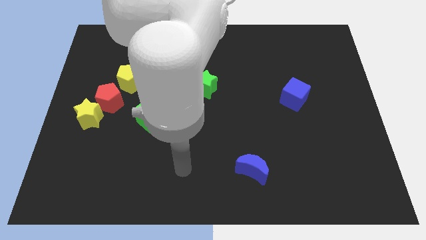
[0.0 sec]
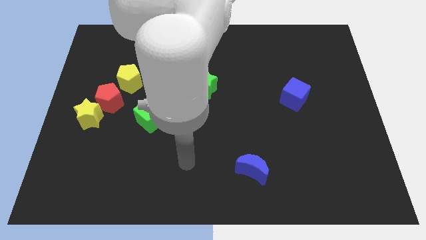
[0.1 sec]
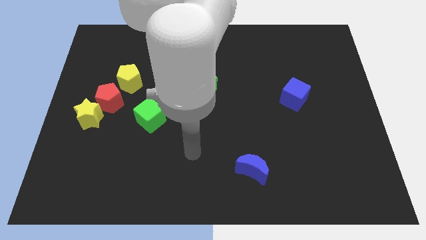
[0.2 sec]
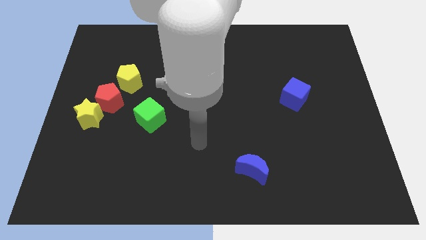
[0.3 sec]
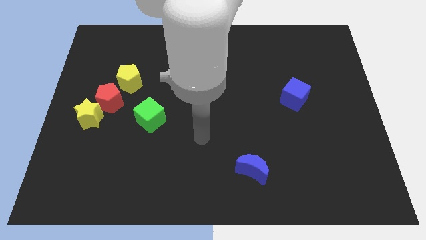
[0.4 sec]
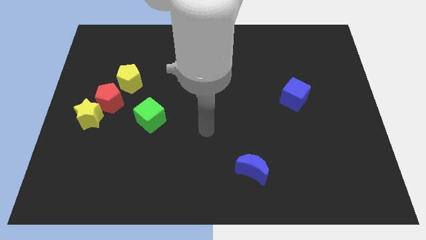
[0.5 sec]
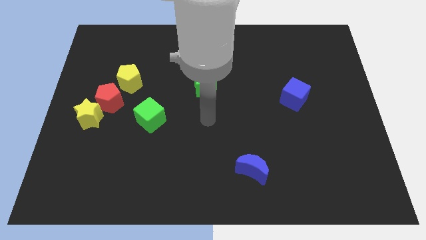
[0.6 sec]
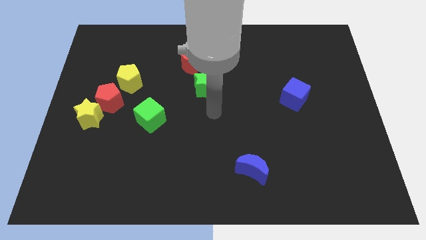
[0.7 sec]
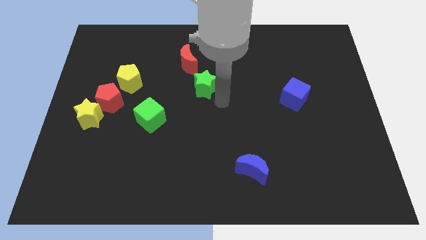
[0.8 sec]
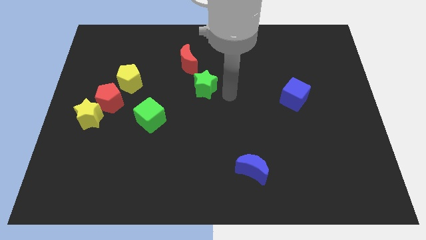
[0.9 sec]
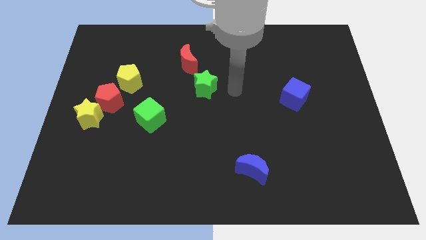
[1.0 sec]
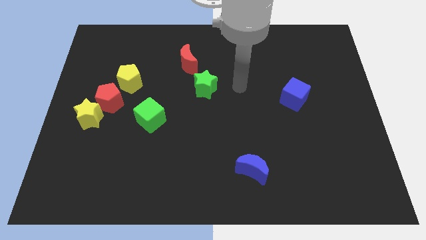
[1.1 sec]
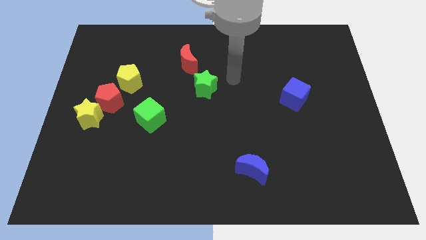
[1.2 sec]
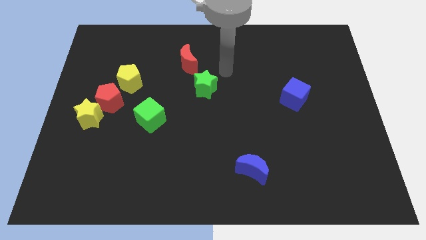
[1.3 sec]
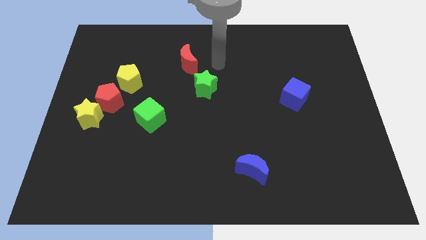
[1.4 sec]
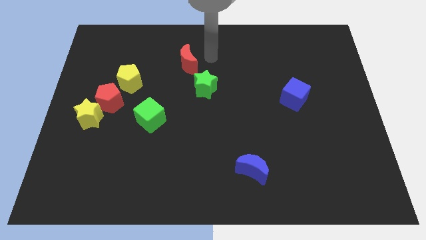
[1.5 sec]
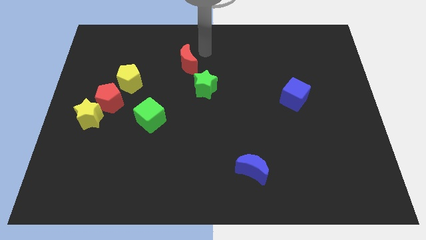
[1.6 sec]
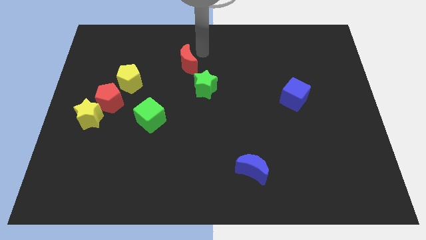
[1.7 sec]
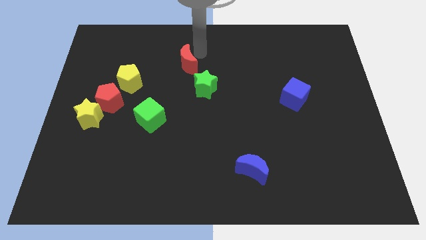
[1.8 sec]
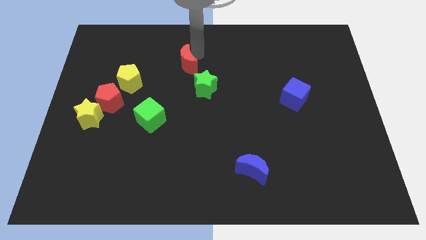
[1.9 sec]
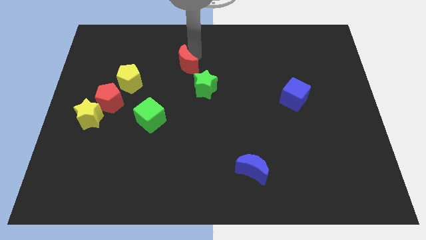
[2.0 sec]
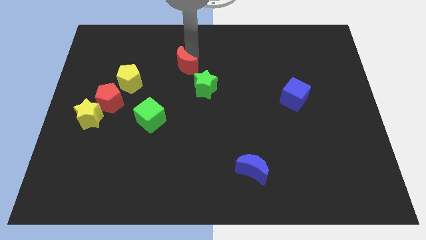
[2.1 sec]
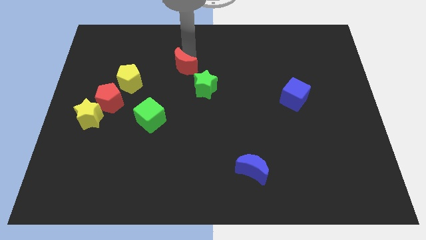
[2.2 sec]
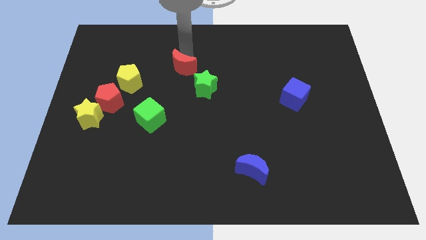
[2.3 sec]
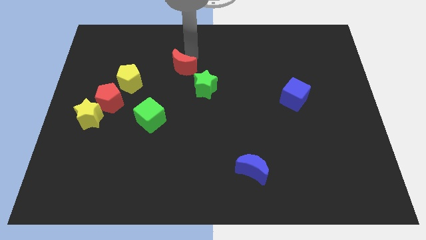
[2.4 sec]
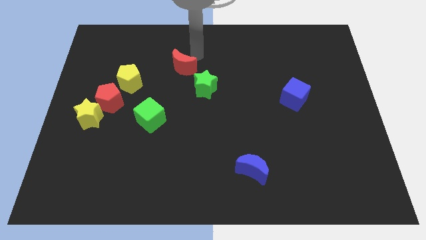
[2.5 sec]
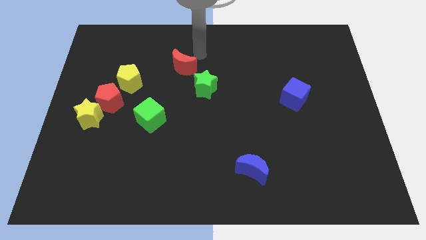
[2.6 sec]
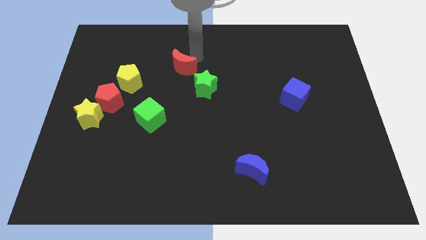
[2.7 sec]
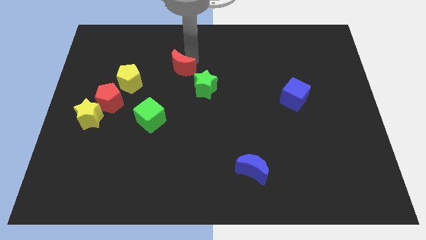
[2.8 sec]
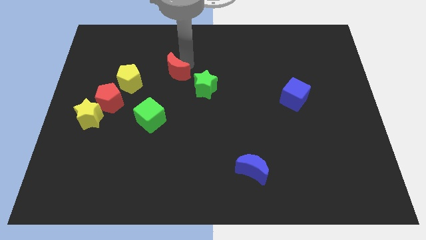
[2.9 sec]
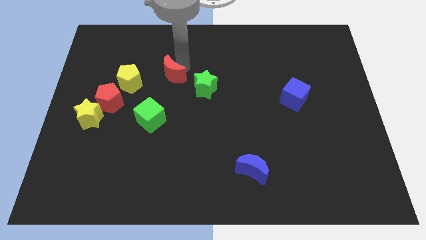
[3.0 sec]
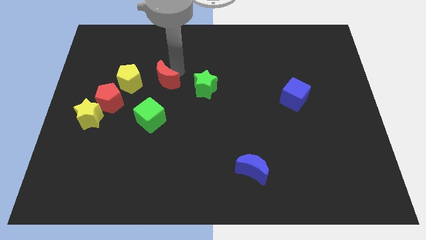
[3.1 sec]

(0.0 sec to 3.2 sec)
slide the red moon diagonally down and left somewhat

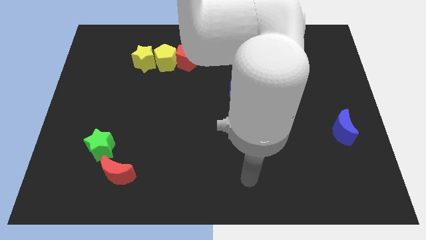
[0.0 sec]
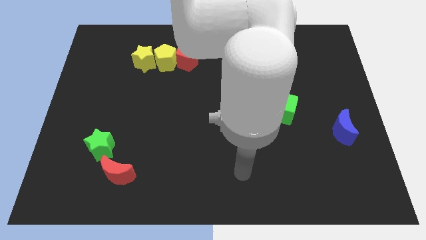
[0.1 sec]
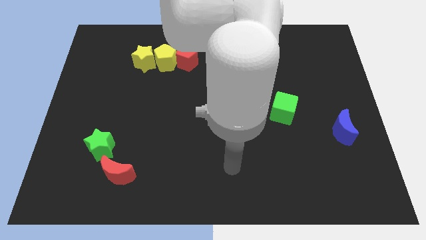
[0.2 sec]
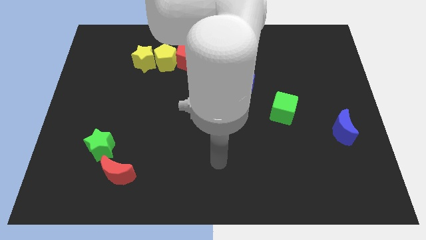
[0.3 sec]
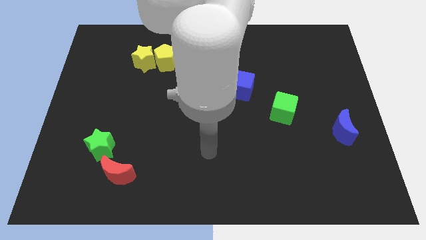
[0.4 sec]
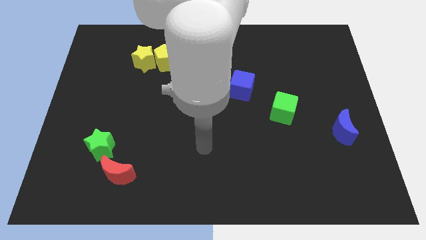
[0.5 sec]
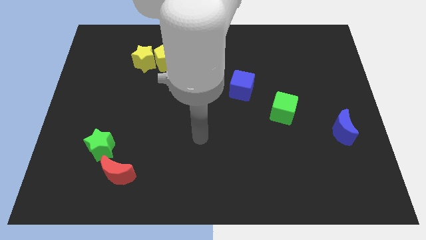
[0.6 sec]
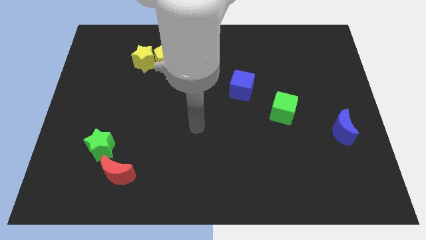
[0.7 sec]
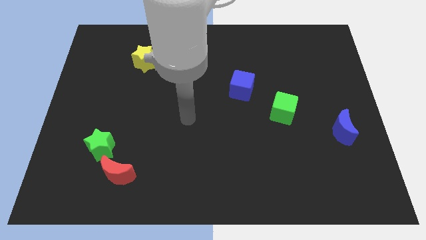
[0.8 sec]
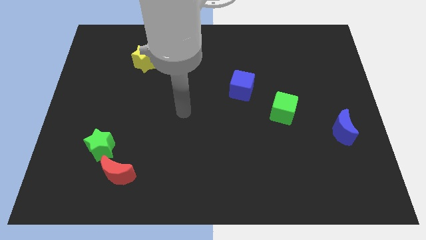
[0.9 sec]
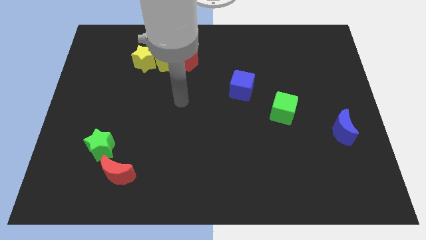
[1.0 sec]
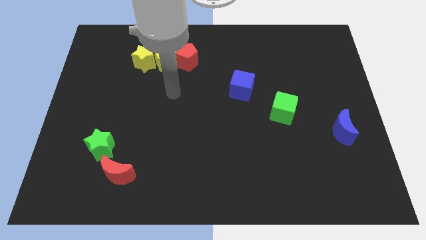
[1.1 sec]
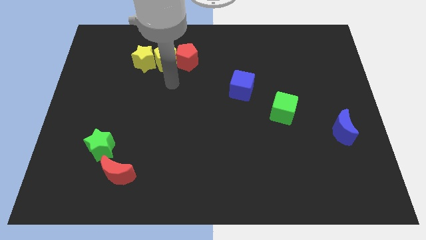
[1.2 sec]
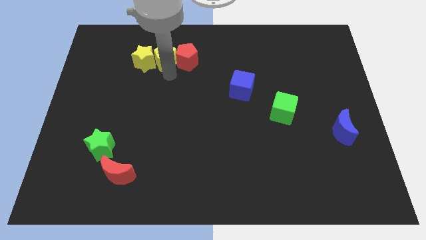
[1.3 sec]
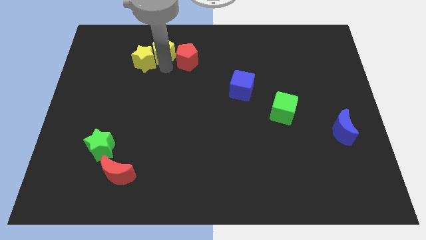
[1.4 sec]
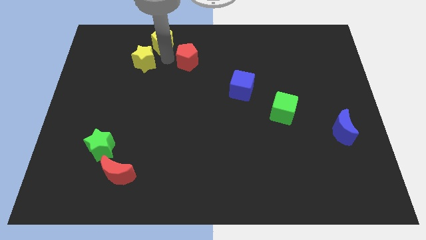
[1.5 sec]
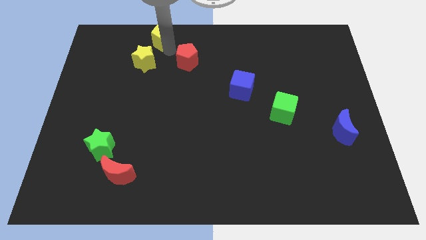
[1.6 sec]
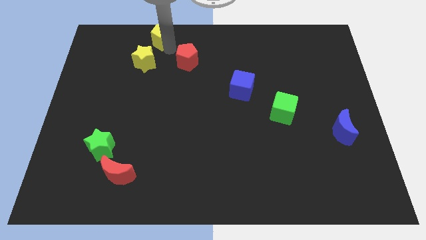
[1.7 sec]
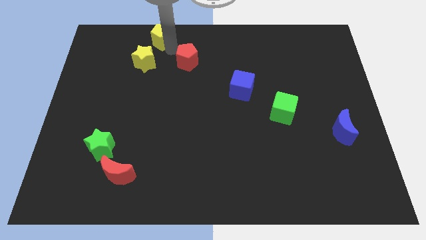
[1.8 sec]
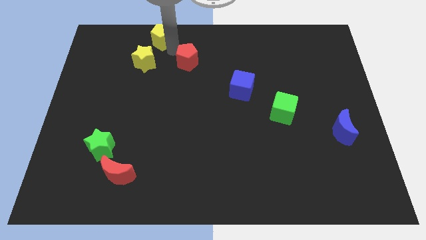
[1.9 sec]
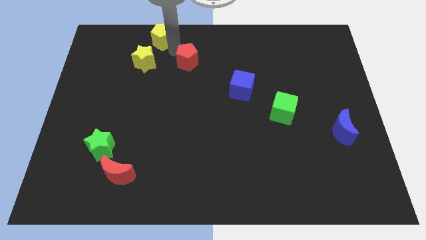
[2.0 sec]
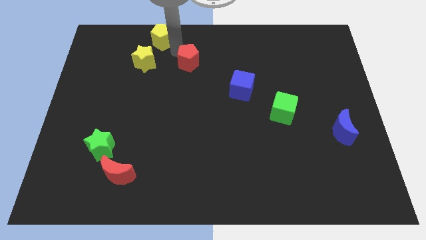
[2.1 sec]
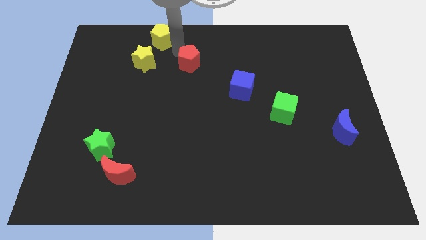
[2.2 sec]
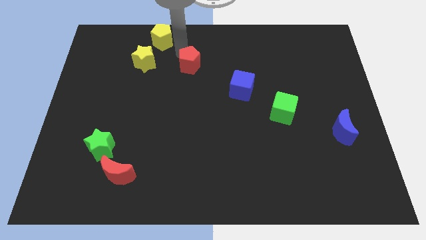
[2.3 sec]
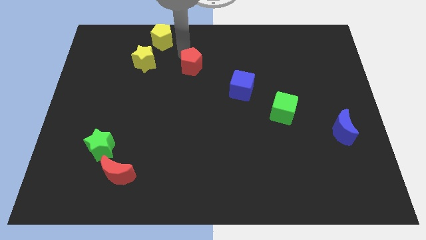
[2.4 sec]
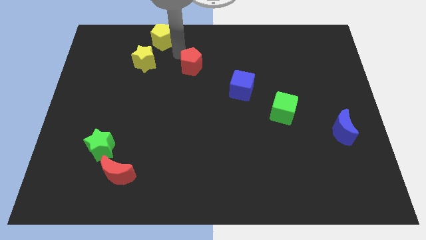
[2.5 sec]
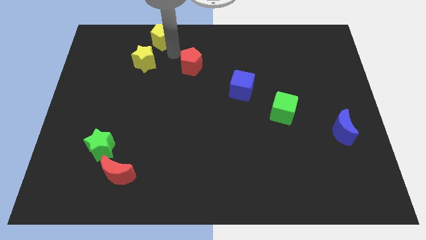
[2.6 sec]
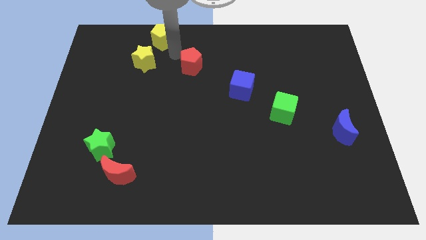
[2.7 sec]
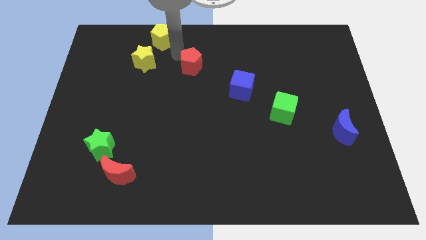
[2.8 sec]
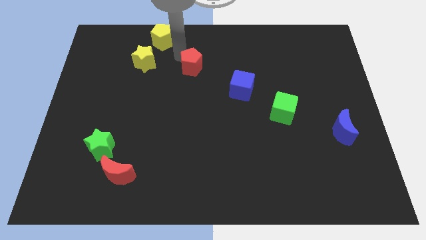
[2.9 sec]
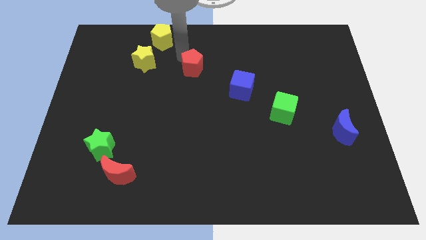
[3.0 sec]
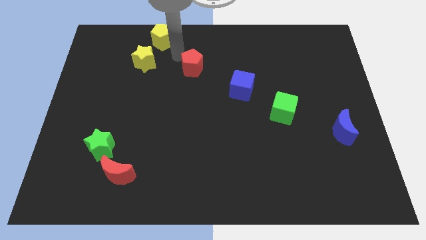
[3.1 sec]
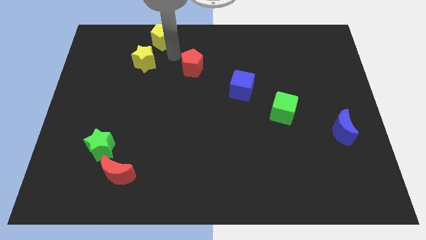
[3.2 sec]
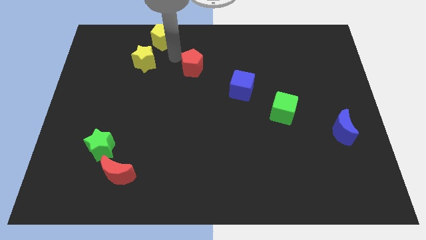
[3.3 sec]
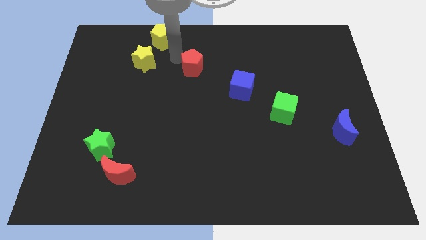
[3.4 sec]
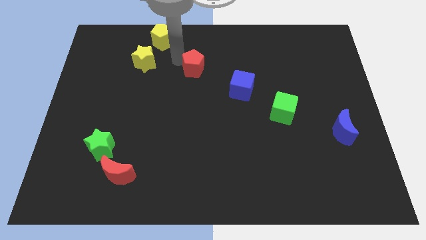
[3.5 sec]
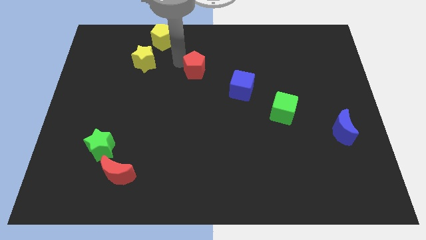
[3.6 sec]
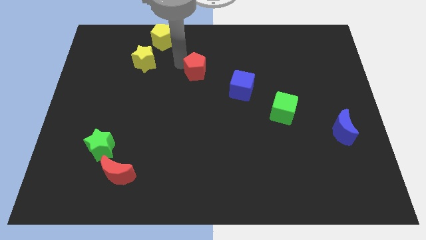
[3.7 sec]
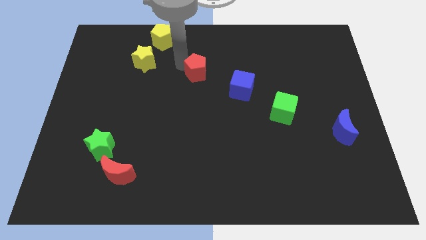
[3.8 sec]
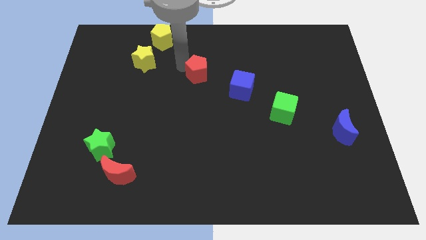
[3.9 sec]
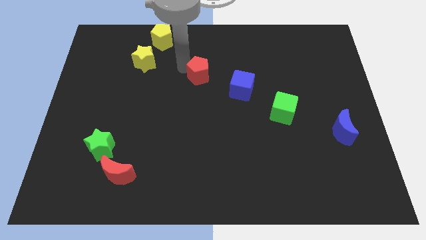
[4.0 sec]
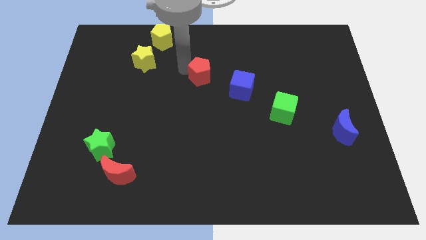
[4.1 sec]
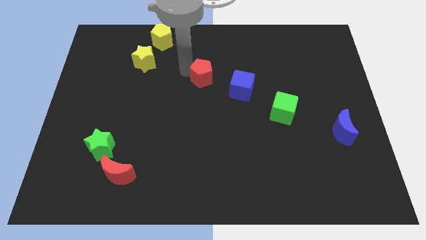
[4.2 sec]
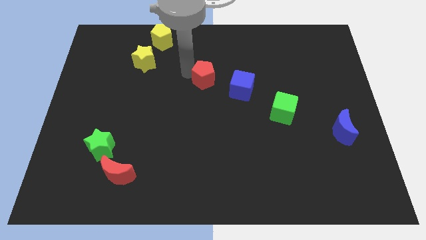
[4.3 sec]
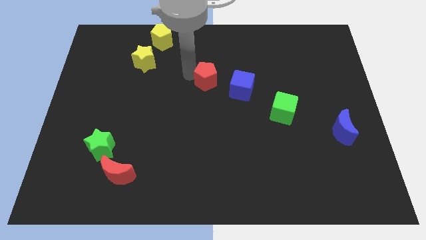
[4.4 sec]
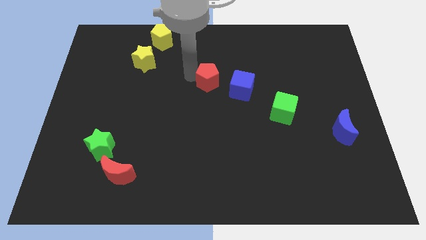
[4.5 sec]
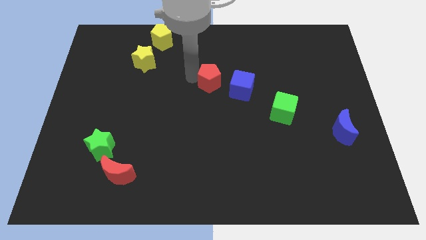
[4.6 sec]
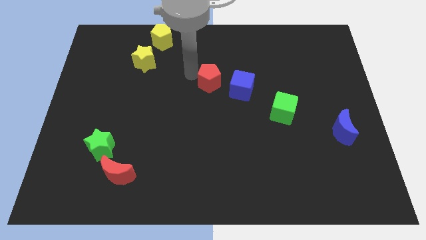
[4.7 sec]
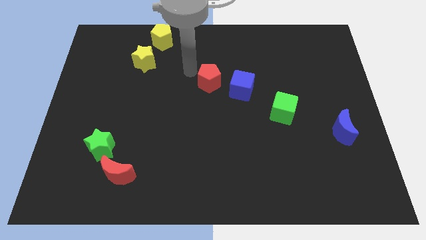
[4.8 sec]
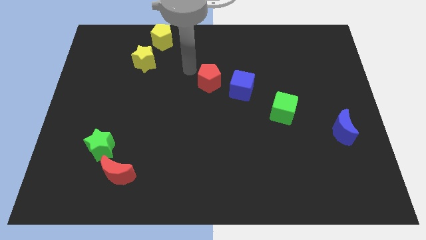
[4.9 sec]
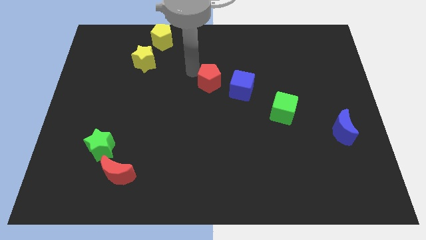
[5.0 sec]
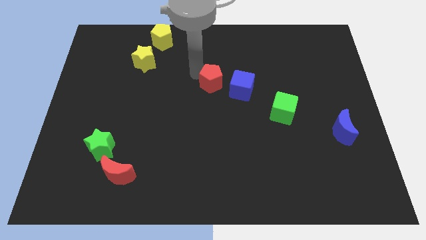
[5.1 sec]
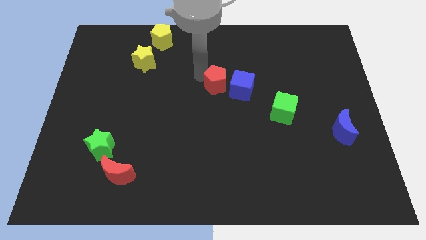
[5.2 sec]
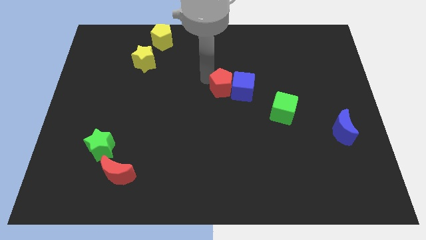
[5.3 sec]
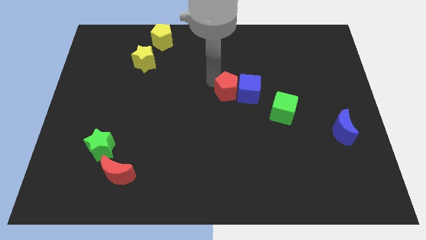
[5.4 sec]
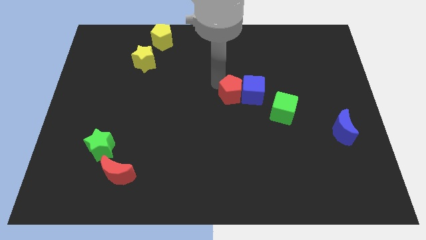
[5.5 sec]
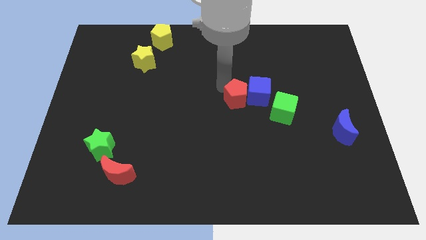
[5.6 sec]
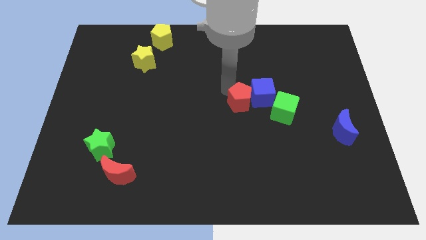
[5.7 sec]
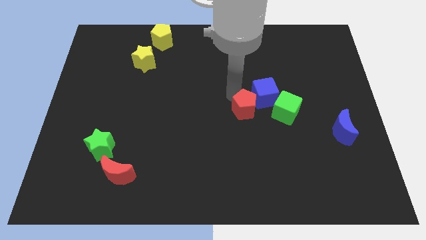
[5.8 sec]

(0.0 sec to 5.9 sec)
slide the red pentagon downwards and right
